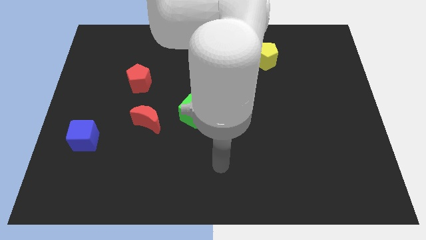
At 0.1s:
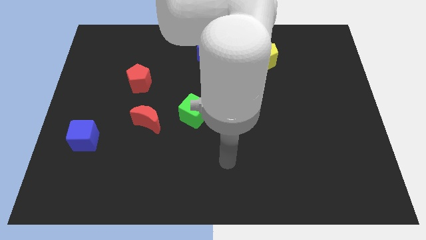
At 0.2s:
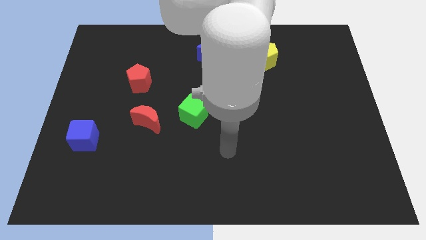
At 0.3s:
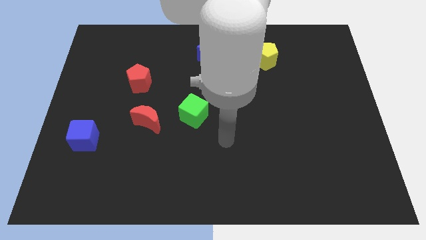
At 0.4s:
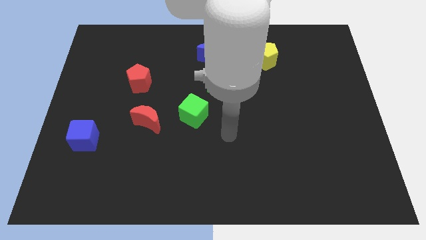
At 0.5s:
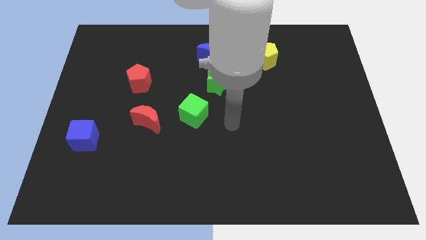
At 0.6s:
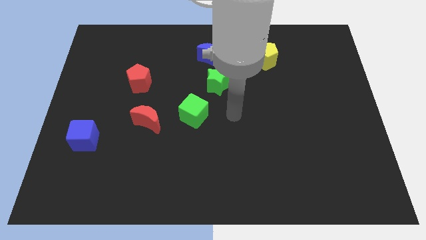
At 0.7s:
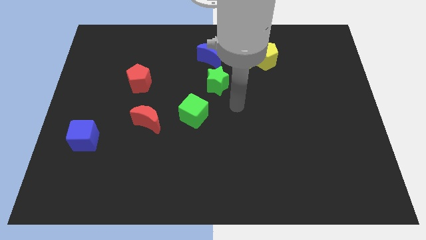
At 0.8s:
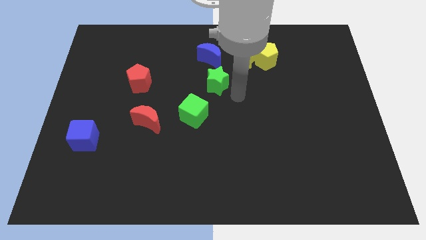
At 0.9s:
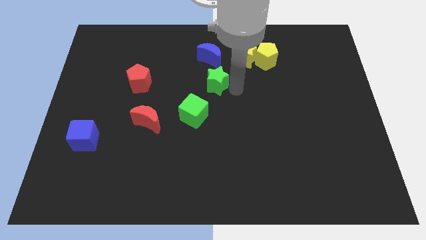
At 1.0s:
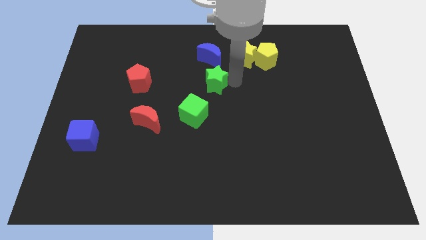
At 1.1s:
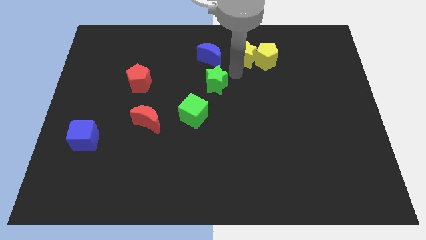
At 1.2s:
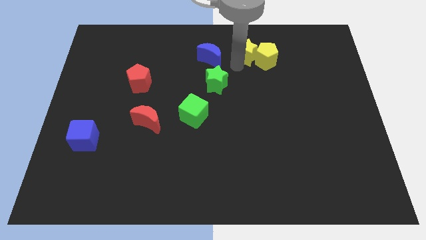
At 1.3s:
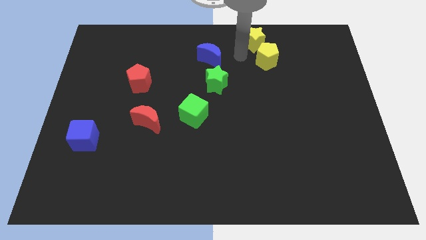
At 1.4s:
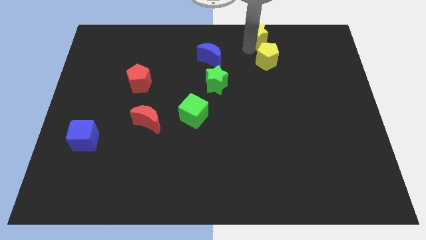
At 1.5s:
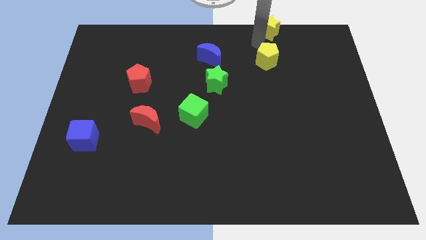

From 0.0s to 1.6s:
pull the yellow pentagon apart from the yellow star

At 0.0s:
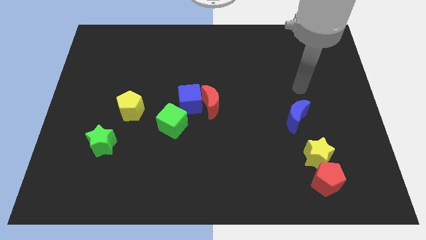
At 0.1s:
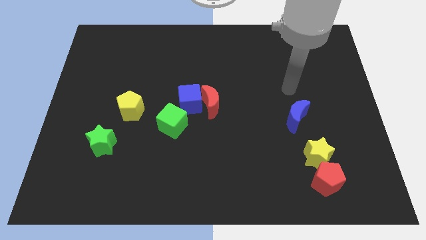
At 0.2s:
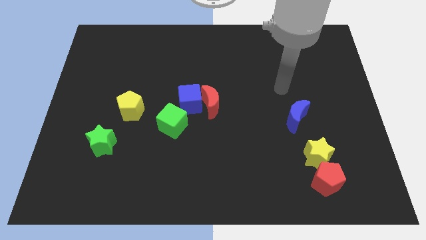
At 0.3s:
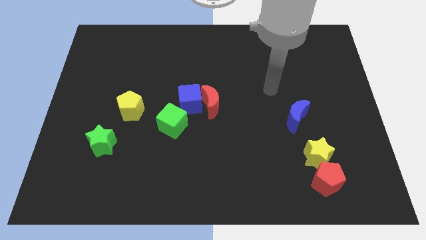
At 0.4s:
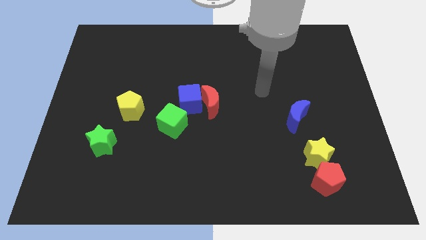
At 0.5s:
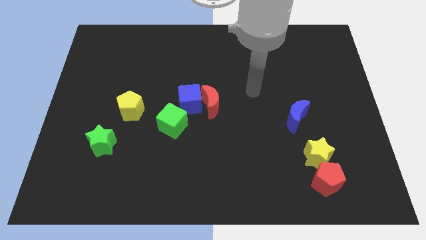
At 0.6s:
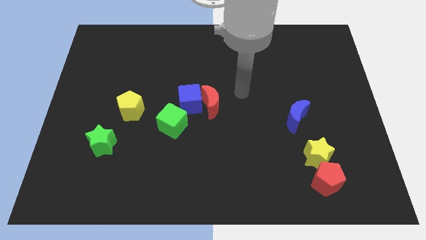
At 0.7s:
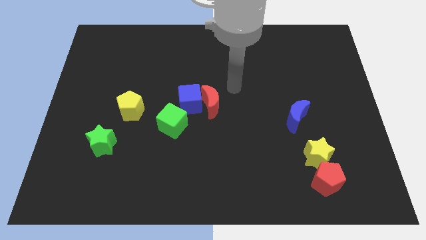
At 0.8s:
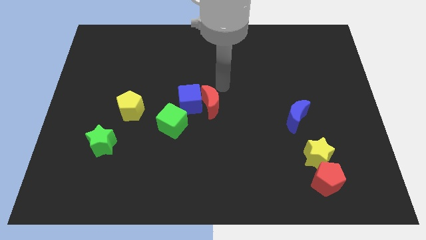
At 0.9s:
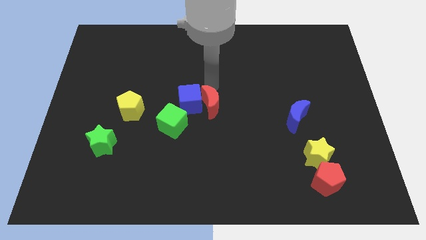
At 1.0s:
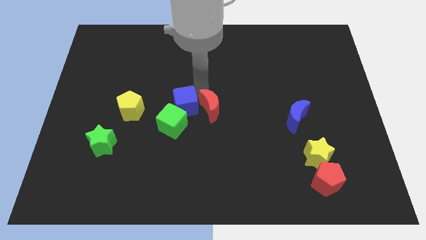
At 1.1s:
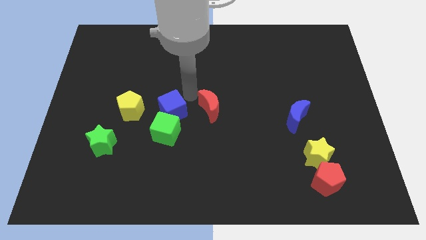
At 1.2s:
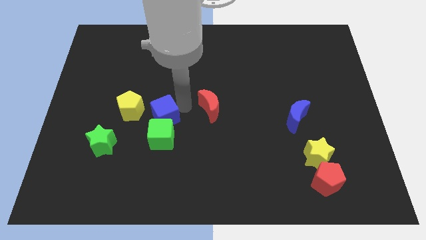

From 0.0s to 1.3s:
move the red moon away from the blue cube

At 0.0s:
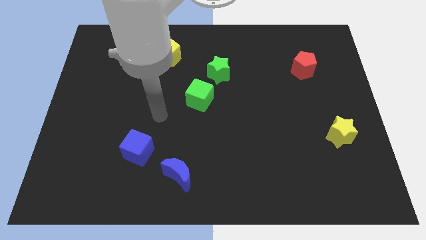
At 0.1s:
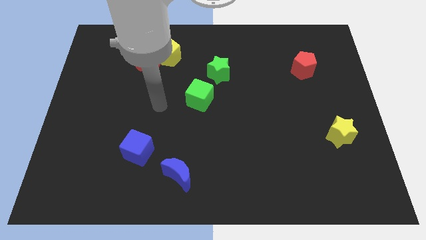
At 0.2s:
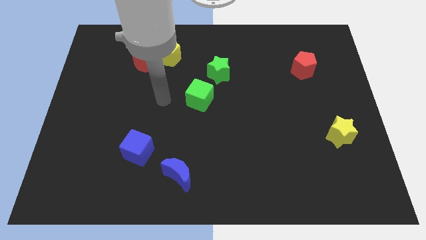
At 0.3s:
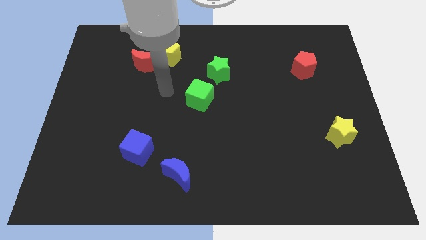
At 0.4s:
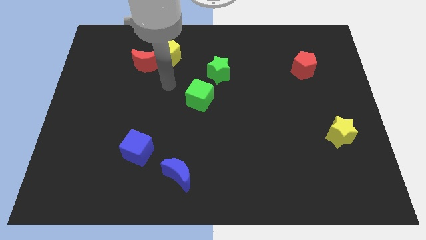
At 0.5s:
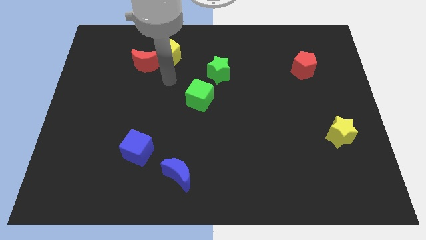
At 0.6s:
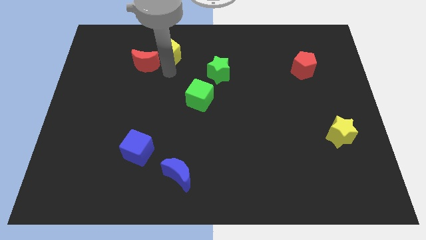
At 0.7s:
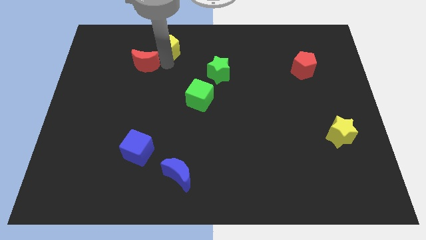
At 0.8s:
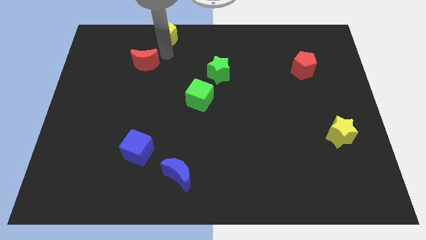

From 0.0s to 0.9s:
pull the red moon apart from the yellow pentagon

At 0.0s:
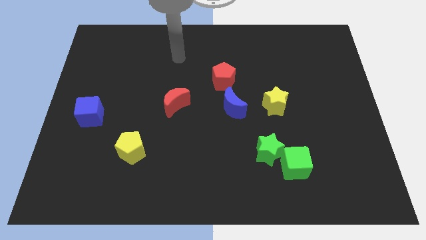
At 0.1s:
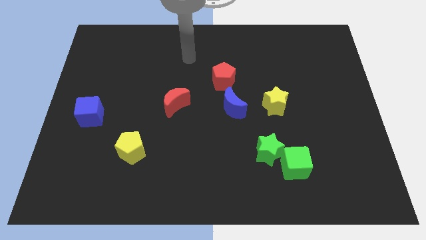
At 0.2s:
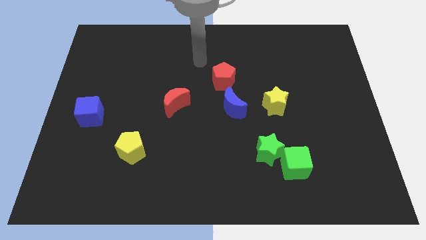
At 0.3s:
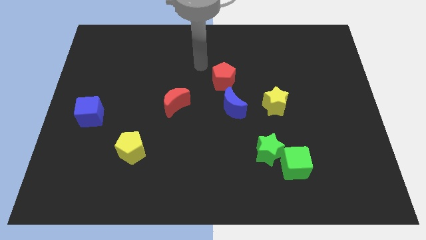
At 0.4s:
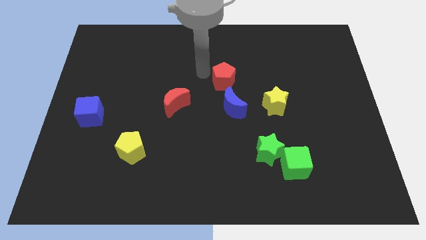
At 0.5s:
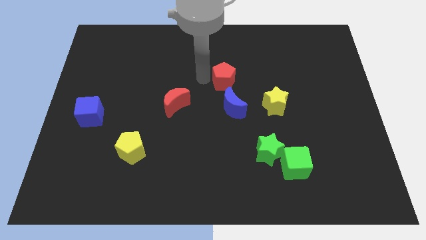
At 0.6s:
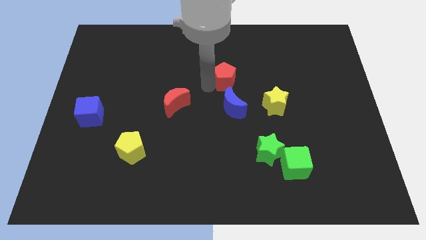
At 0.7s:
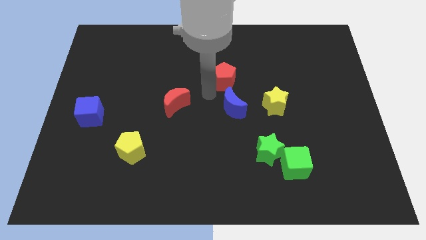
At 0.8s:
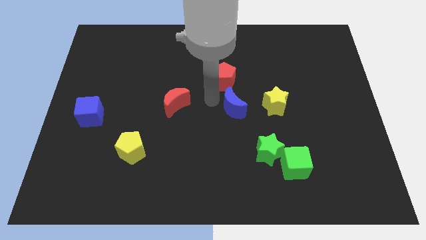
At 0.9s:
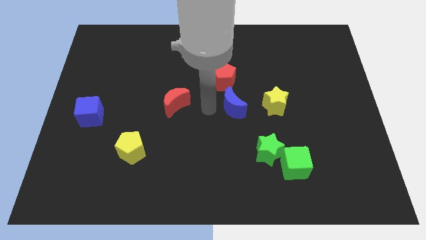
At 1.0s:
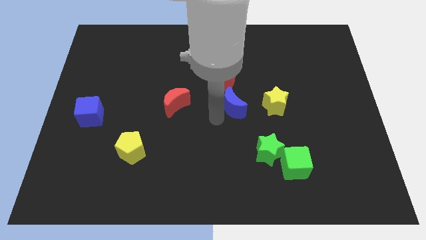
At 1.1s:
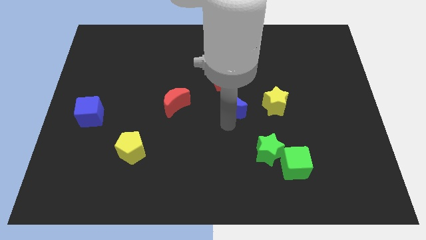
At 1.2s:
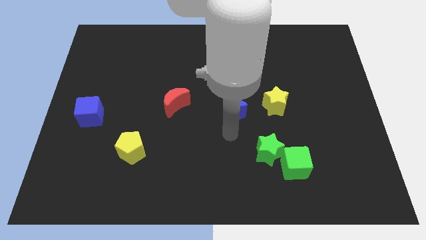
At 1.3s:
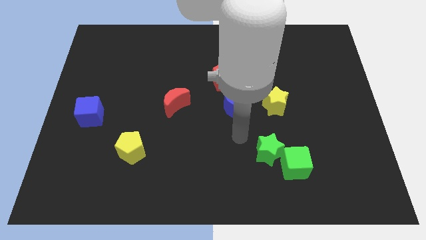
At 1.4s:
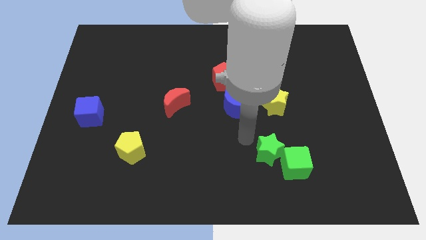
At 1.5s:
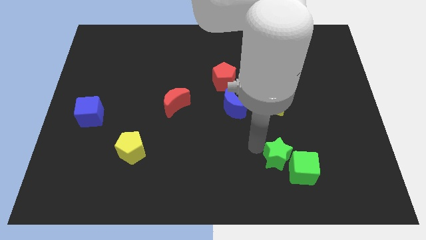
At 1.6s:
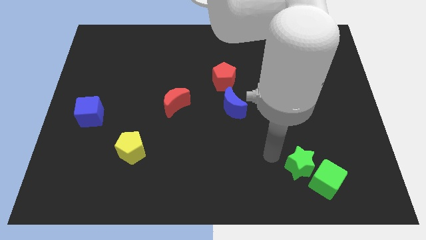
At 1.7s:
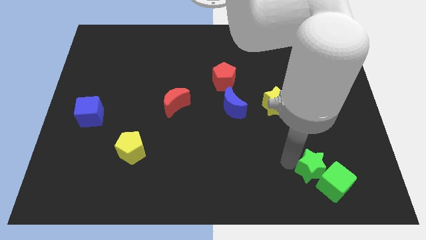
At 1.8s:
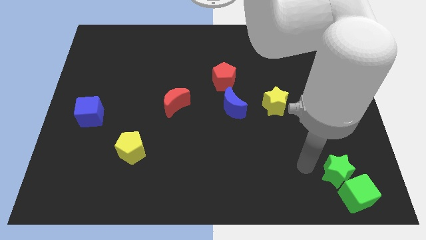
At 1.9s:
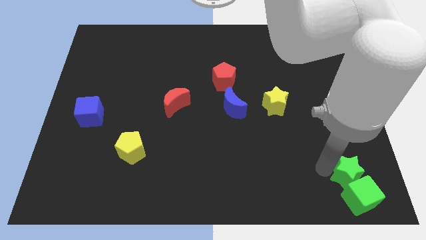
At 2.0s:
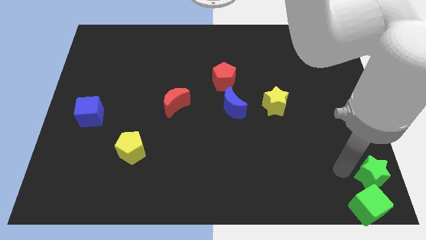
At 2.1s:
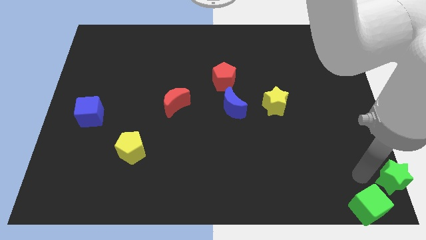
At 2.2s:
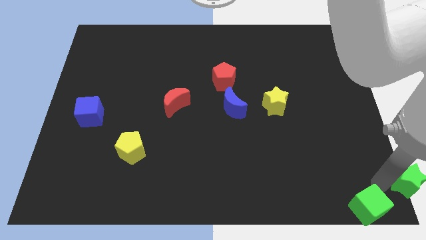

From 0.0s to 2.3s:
separate the green cube from the green star

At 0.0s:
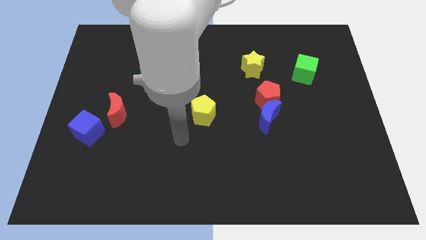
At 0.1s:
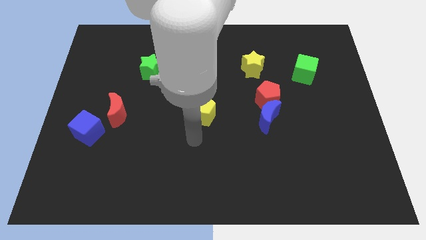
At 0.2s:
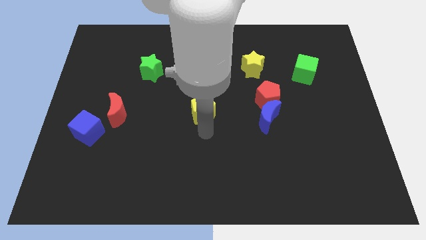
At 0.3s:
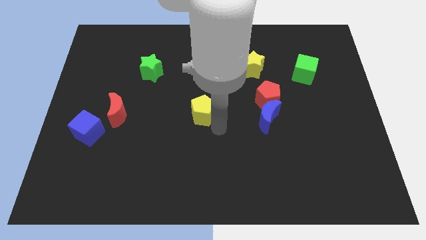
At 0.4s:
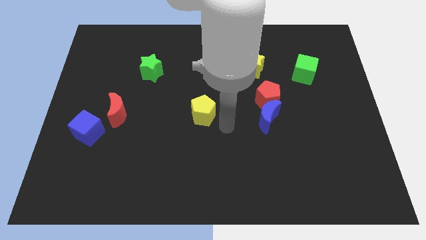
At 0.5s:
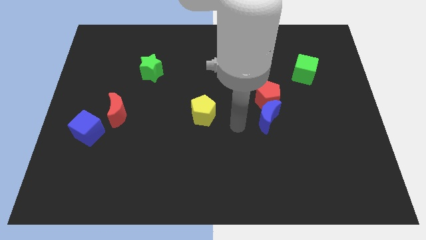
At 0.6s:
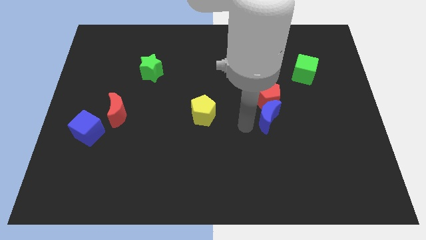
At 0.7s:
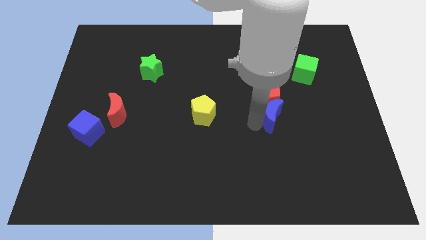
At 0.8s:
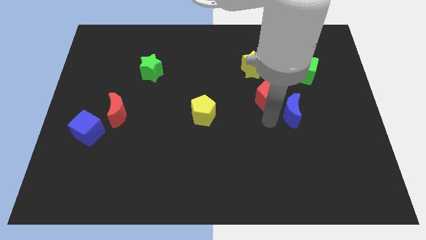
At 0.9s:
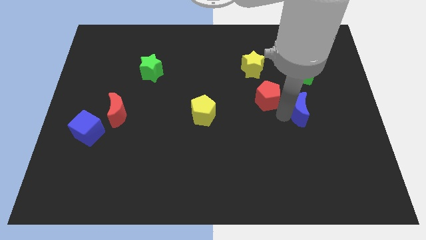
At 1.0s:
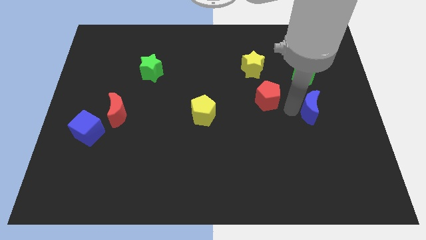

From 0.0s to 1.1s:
separate the red pentagon from the blue moon

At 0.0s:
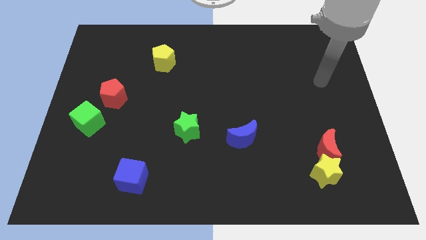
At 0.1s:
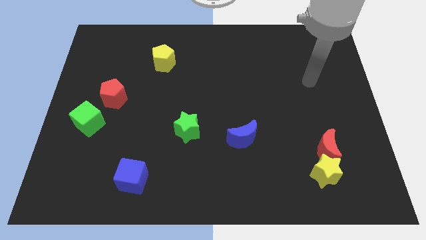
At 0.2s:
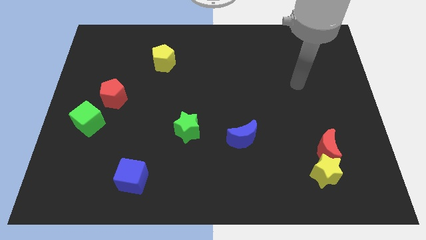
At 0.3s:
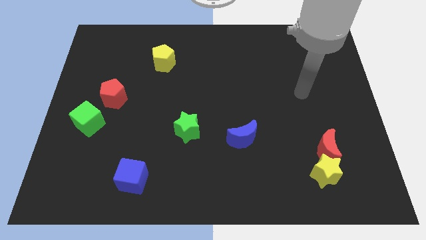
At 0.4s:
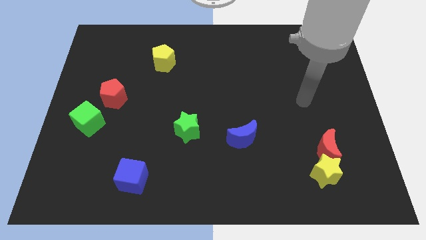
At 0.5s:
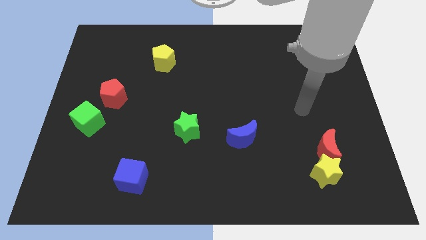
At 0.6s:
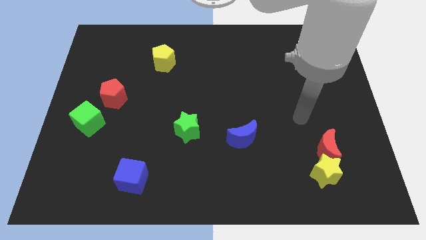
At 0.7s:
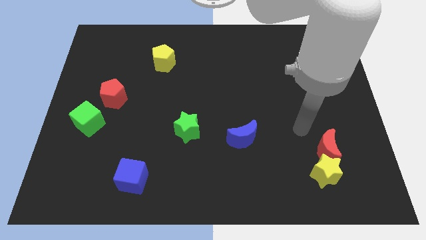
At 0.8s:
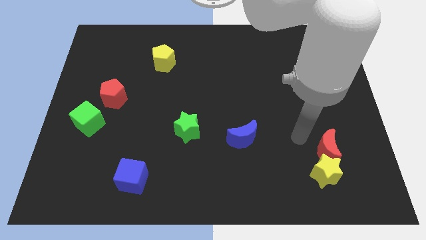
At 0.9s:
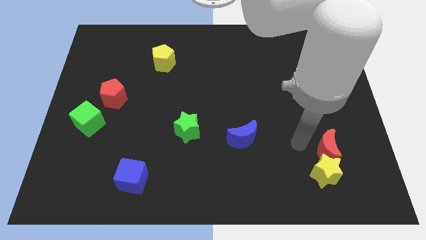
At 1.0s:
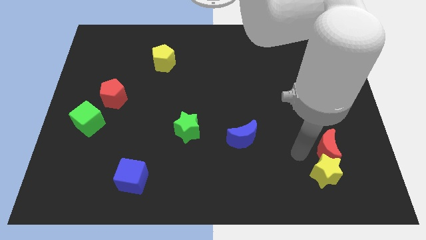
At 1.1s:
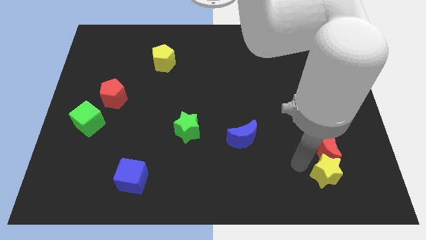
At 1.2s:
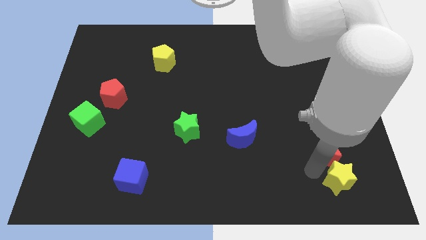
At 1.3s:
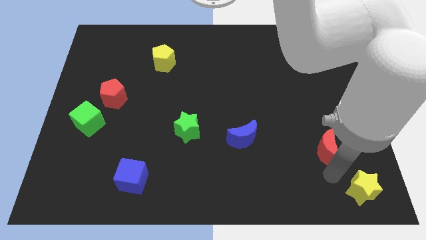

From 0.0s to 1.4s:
move the red moon away from the yellow star

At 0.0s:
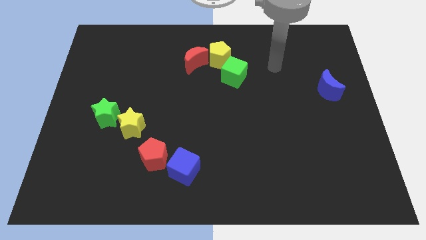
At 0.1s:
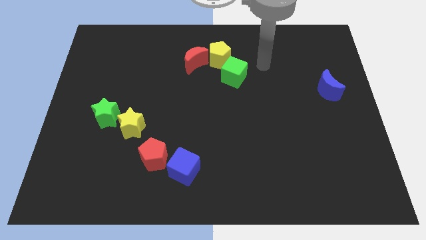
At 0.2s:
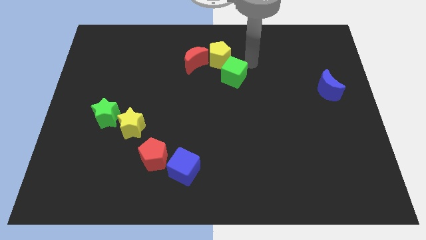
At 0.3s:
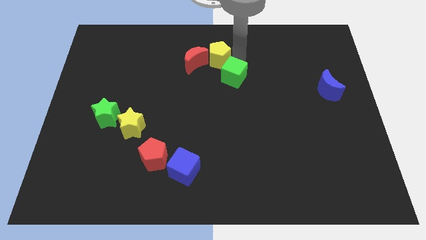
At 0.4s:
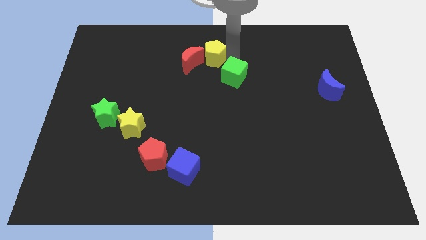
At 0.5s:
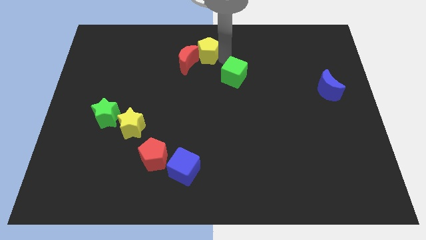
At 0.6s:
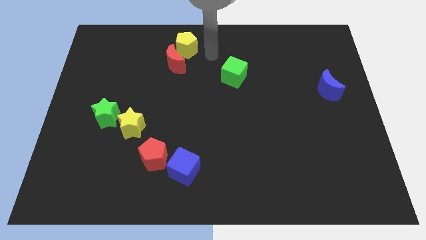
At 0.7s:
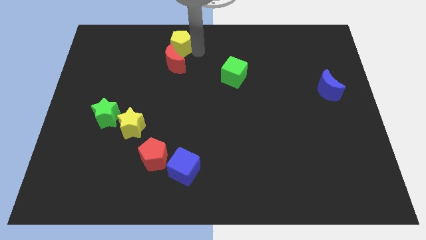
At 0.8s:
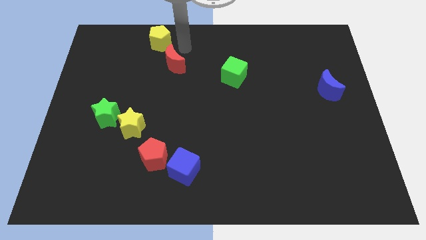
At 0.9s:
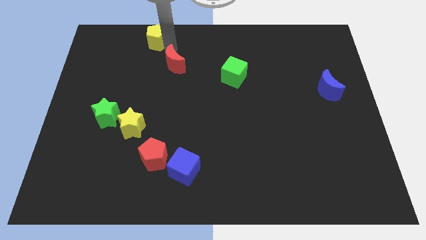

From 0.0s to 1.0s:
separate the red moon from the yellow pentagon
